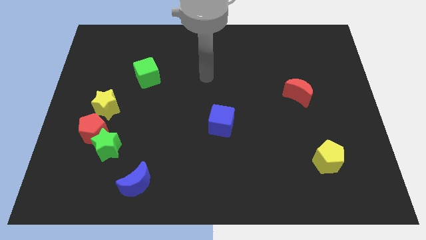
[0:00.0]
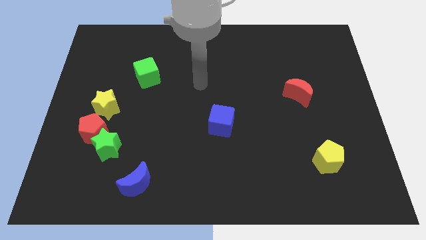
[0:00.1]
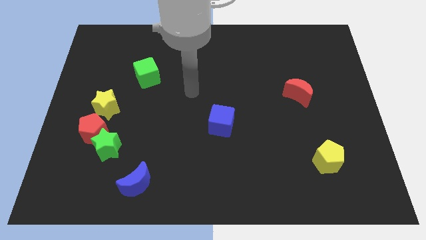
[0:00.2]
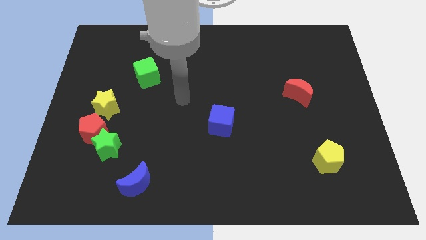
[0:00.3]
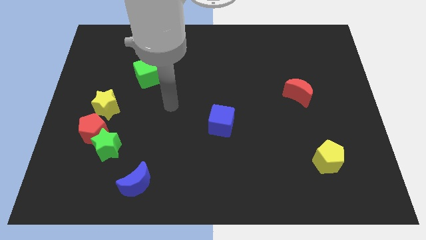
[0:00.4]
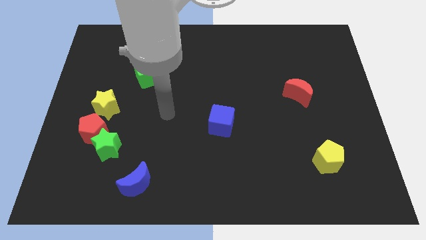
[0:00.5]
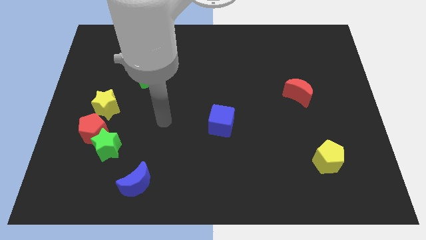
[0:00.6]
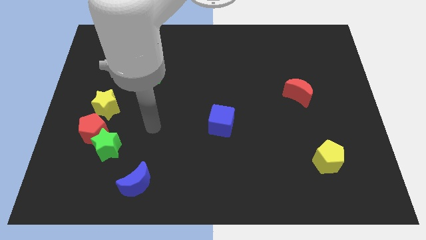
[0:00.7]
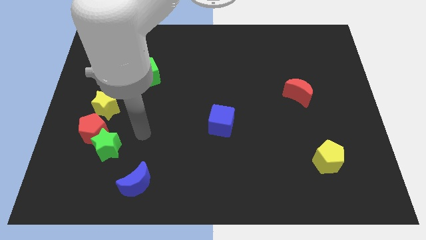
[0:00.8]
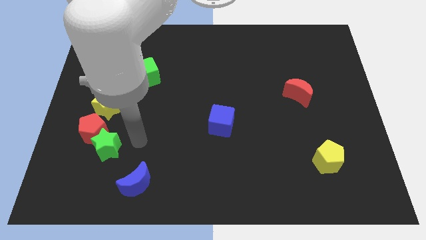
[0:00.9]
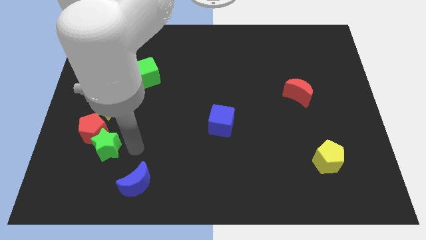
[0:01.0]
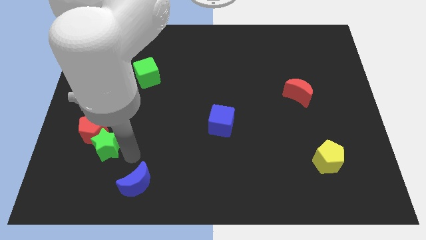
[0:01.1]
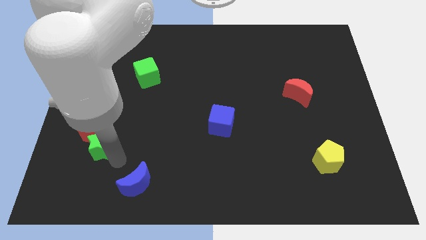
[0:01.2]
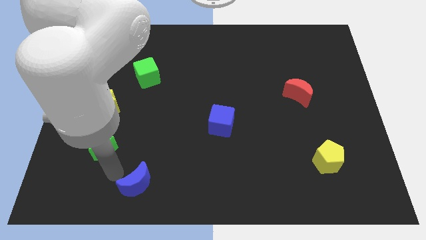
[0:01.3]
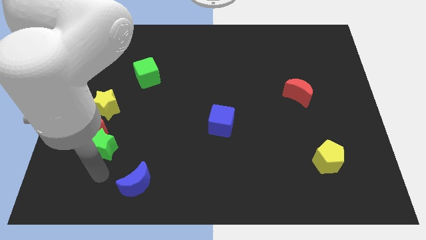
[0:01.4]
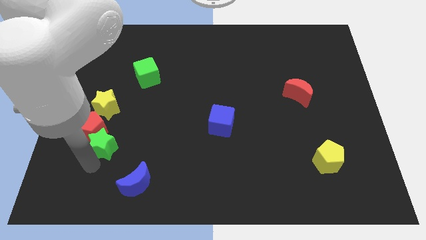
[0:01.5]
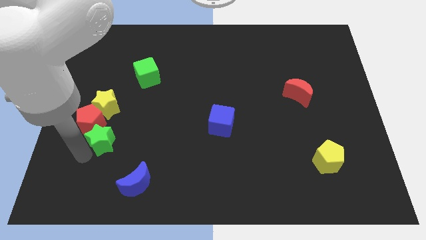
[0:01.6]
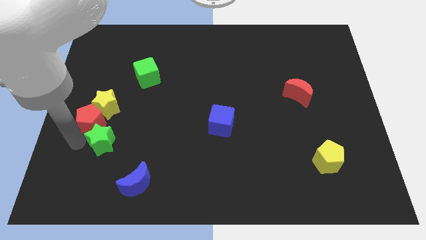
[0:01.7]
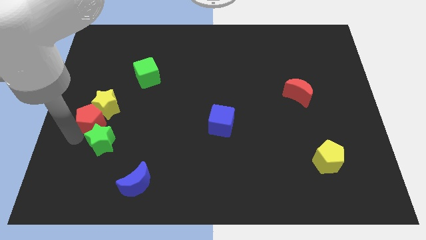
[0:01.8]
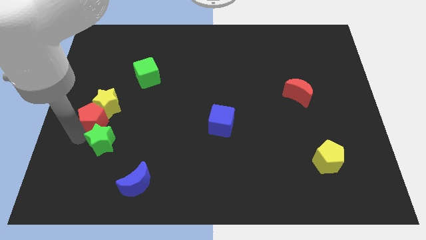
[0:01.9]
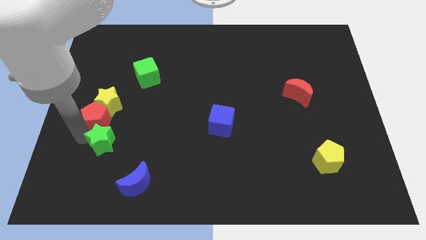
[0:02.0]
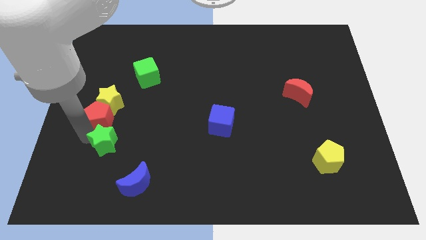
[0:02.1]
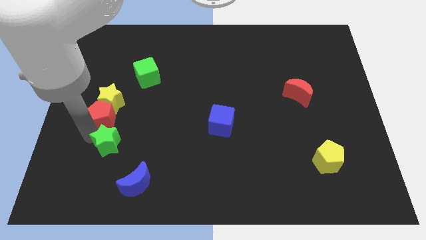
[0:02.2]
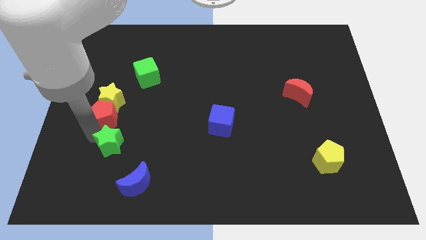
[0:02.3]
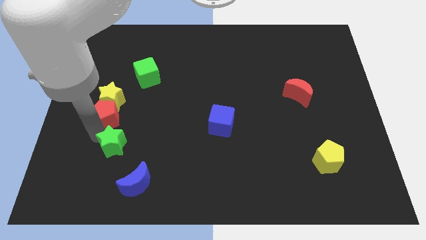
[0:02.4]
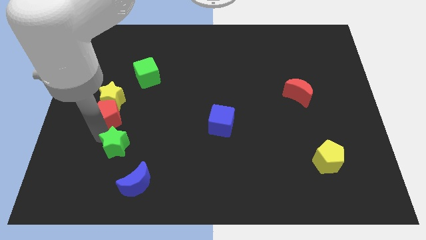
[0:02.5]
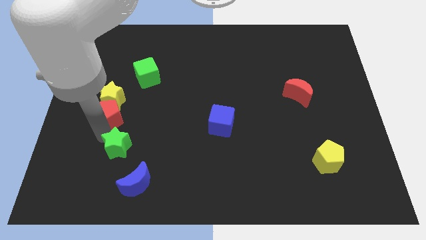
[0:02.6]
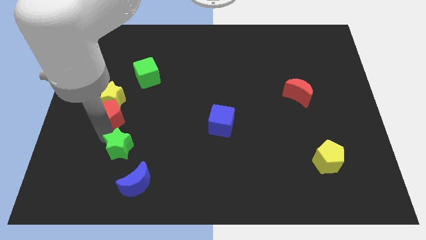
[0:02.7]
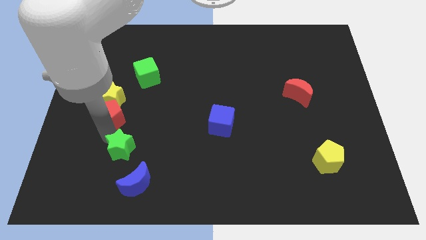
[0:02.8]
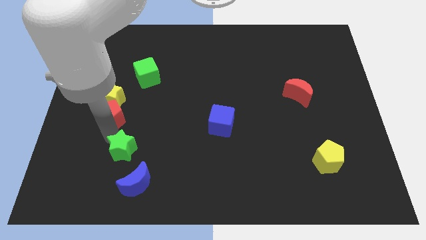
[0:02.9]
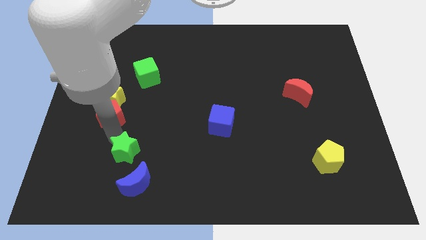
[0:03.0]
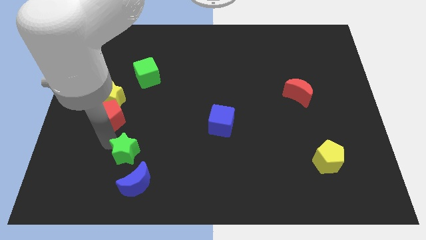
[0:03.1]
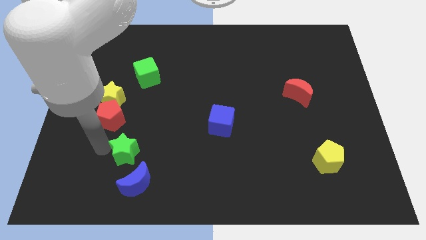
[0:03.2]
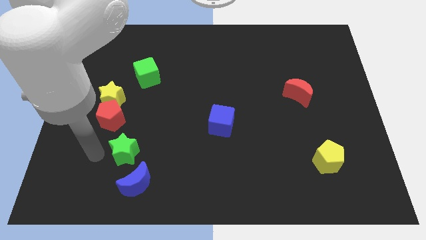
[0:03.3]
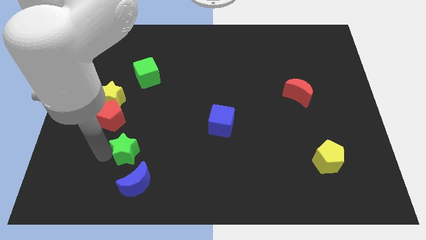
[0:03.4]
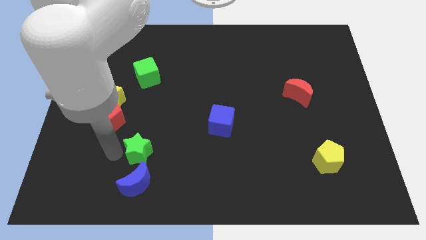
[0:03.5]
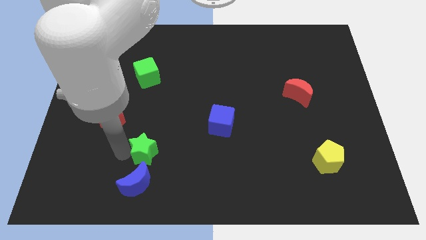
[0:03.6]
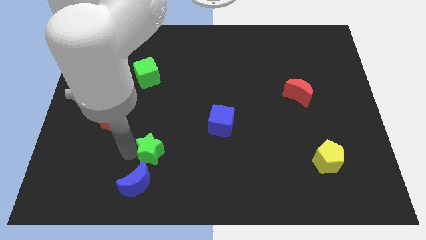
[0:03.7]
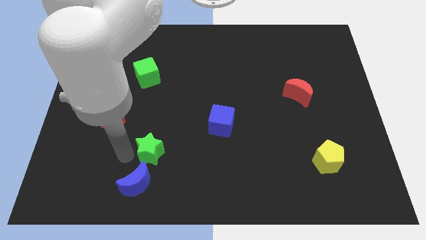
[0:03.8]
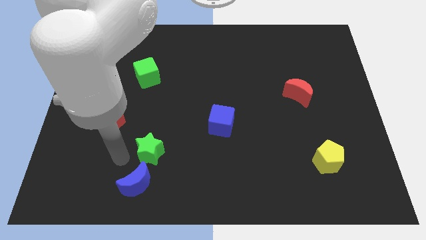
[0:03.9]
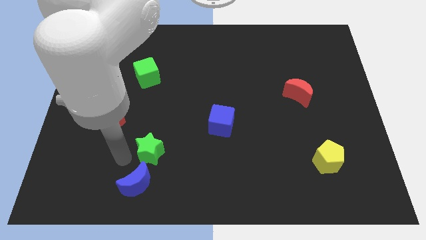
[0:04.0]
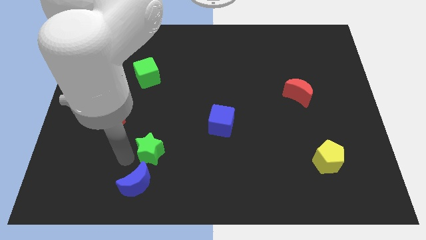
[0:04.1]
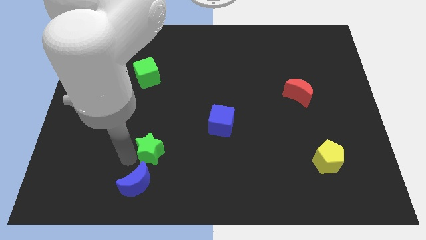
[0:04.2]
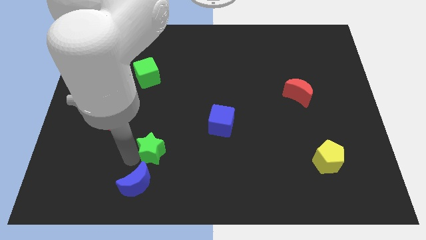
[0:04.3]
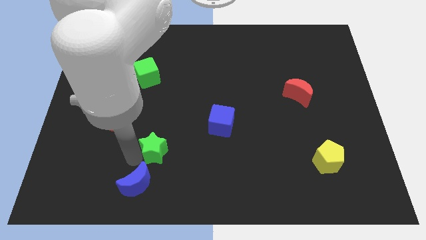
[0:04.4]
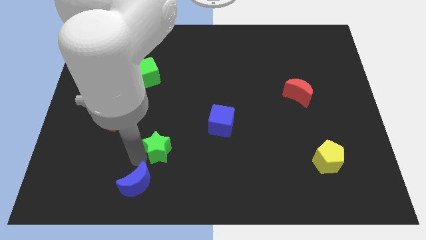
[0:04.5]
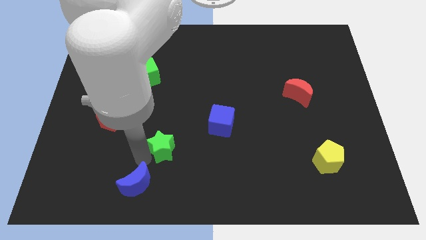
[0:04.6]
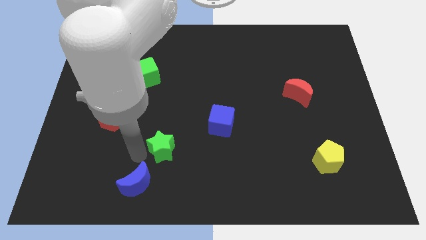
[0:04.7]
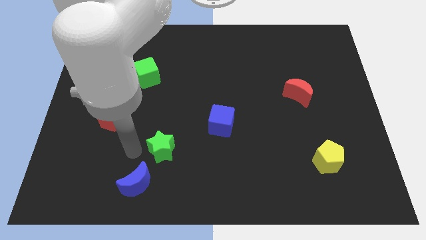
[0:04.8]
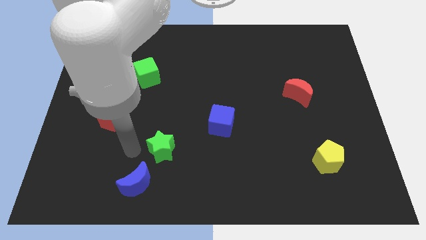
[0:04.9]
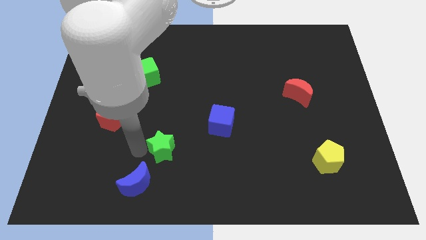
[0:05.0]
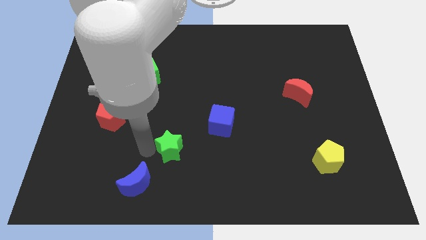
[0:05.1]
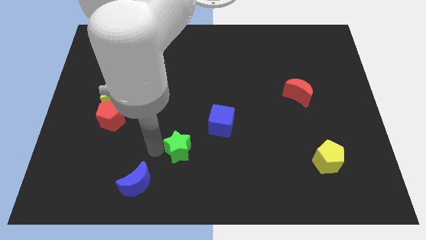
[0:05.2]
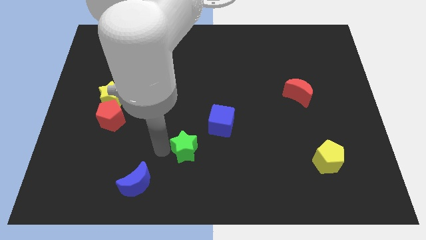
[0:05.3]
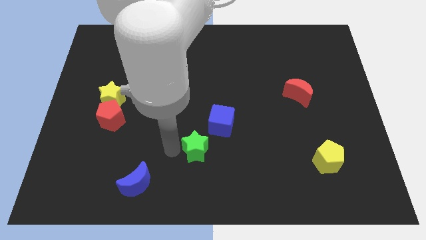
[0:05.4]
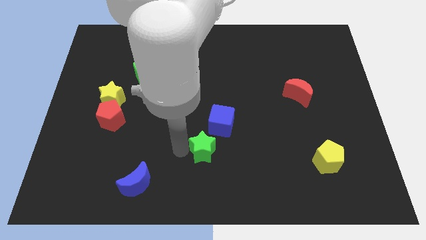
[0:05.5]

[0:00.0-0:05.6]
slide the green star to the right

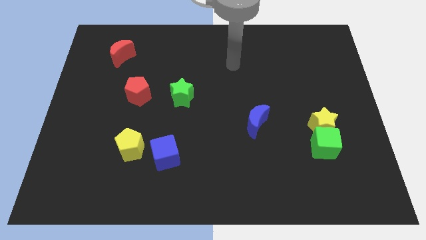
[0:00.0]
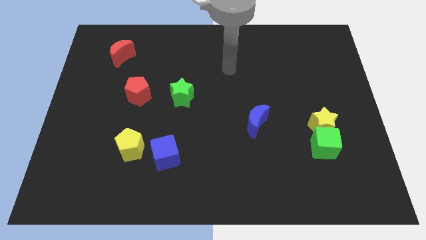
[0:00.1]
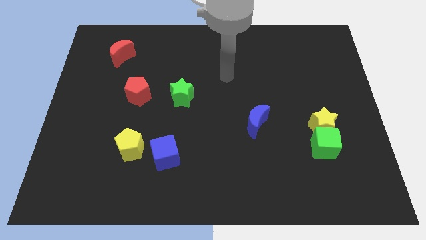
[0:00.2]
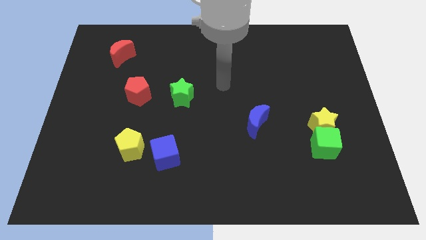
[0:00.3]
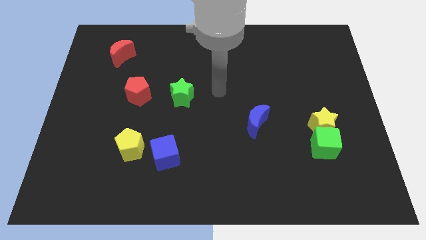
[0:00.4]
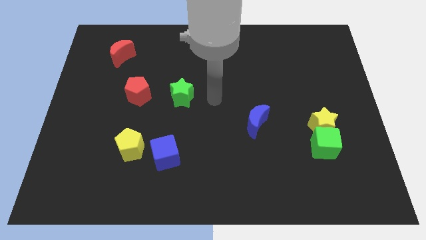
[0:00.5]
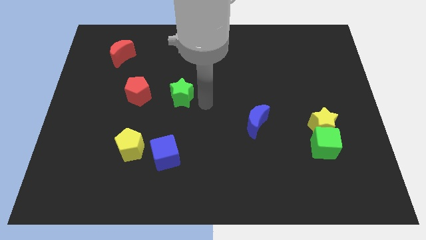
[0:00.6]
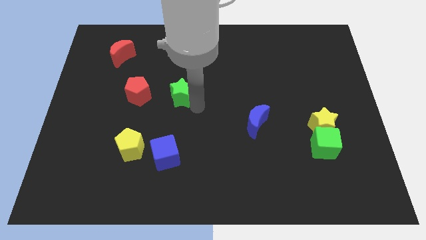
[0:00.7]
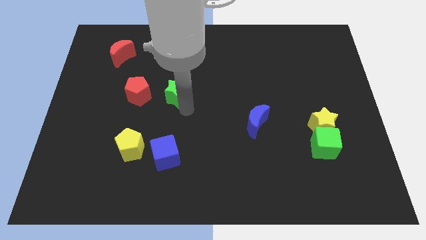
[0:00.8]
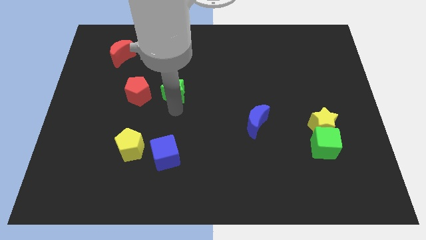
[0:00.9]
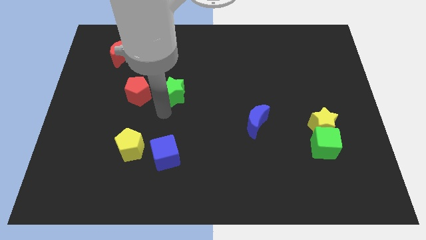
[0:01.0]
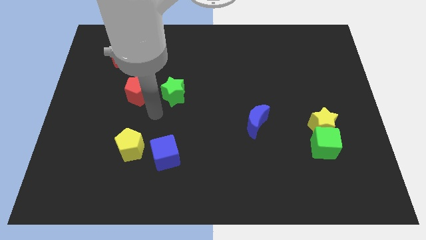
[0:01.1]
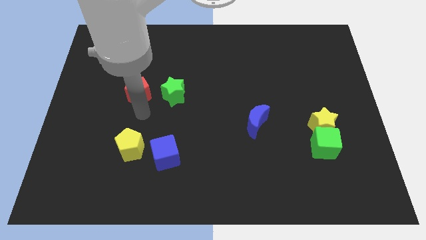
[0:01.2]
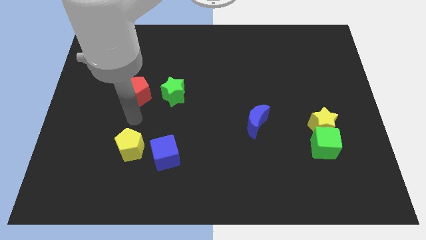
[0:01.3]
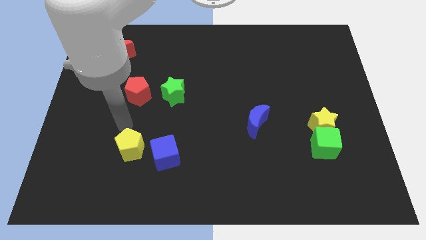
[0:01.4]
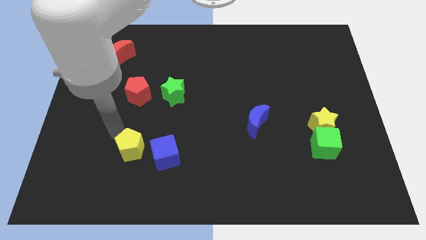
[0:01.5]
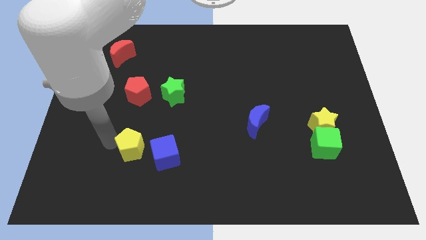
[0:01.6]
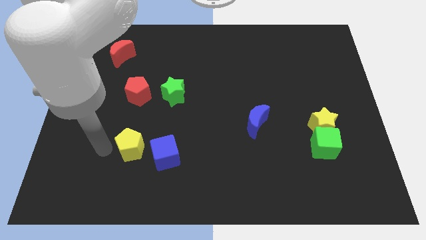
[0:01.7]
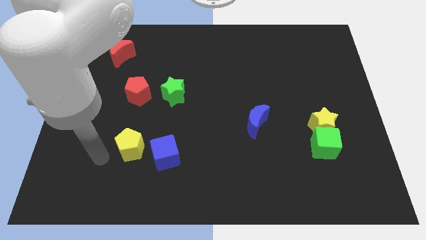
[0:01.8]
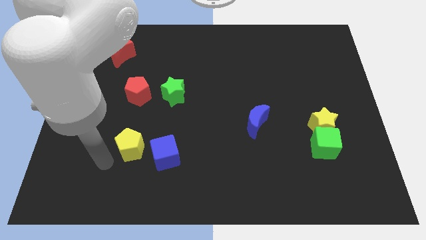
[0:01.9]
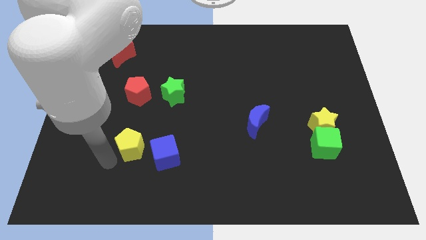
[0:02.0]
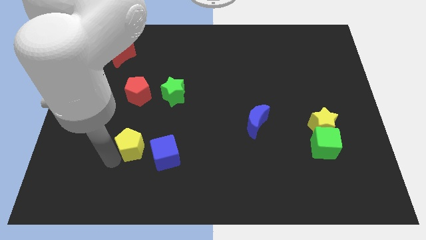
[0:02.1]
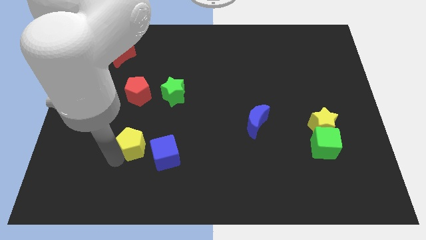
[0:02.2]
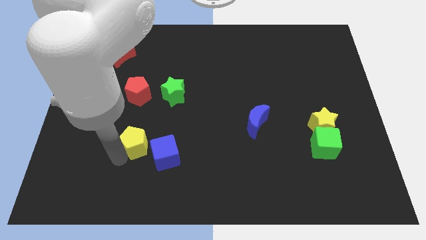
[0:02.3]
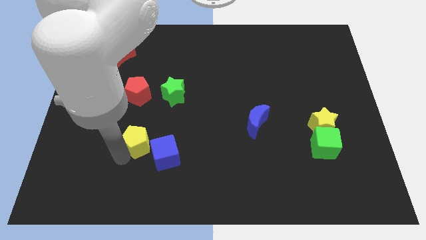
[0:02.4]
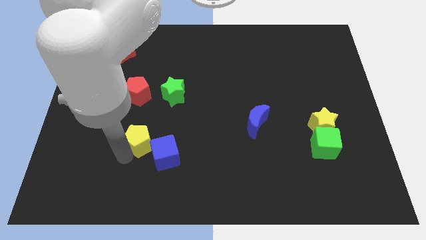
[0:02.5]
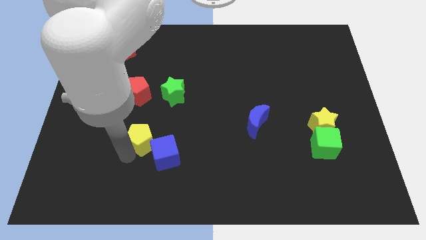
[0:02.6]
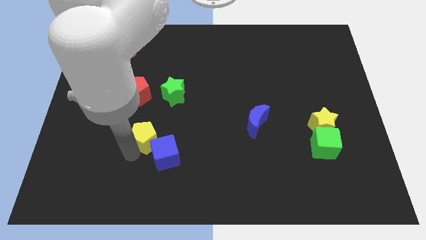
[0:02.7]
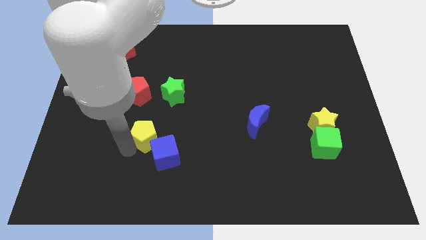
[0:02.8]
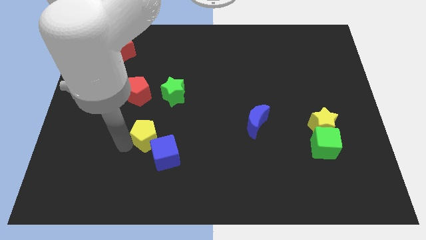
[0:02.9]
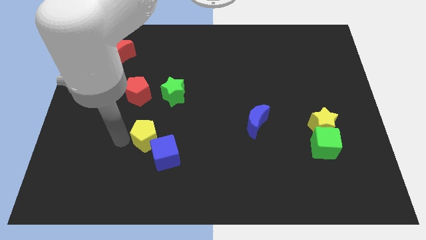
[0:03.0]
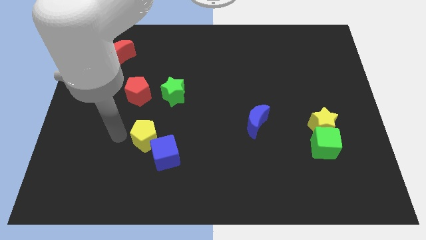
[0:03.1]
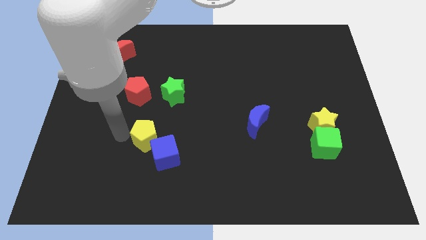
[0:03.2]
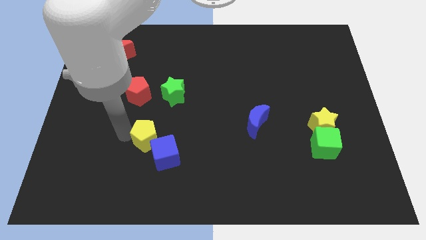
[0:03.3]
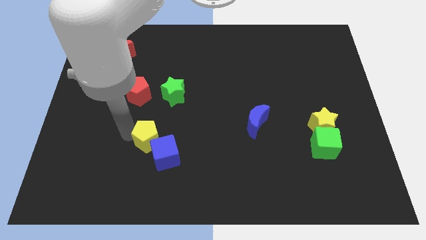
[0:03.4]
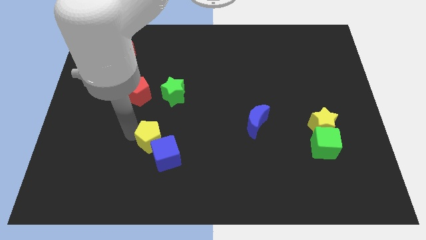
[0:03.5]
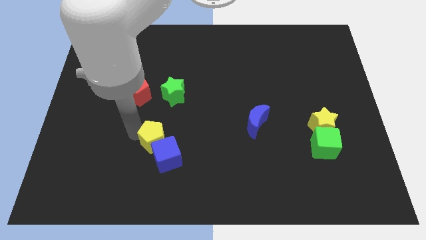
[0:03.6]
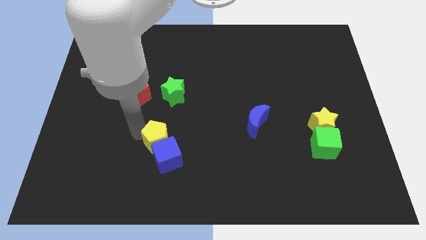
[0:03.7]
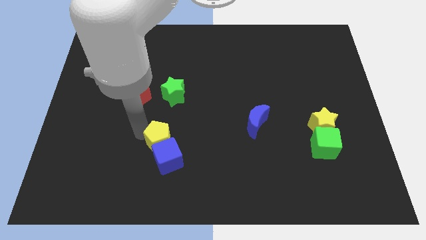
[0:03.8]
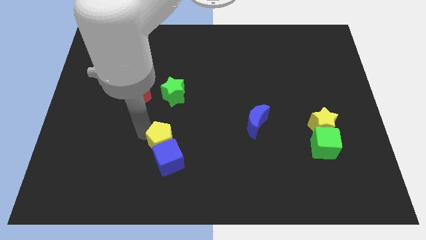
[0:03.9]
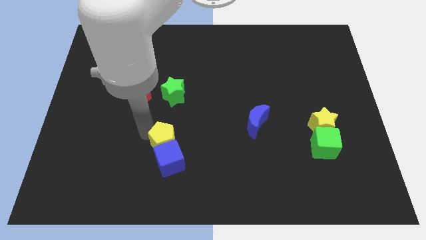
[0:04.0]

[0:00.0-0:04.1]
move the yellow pentagon right a bit
